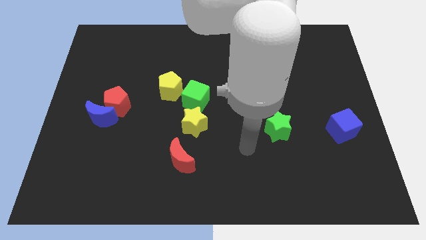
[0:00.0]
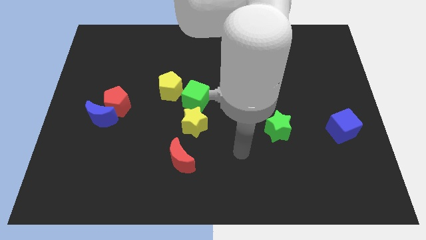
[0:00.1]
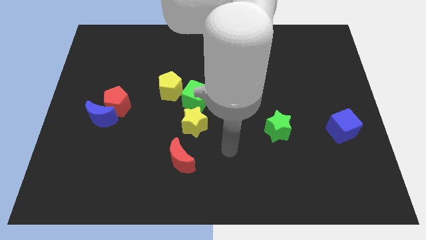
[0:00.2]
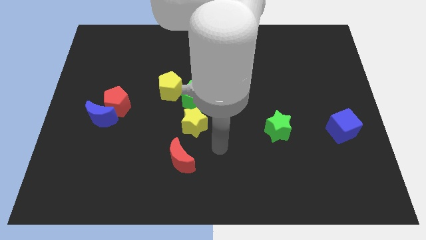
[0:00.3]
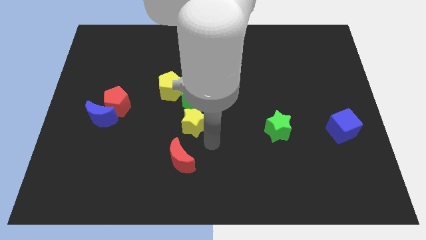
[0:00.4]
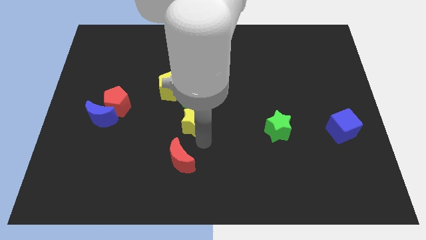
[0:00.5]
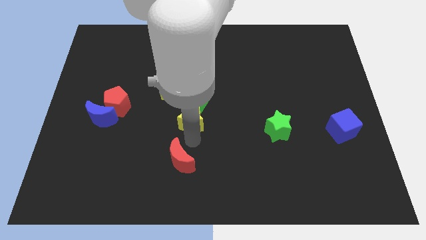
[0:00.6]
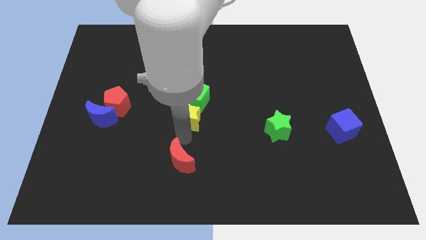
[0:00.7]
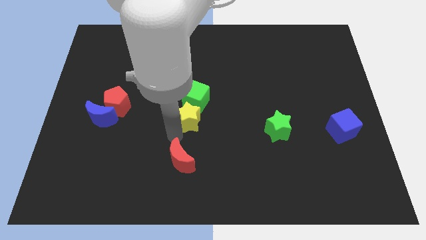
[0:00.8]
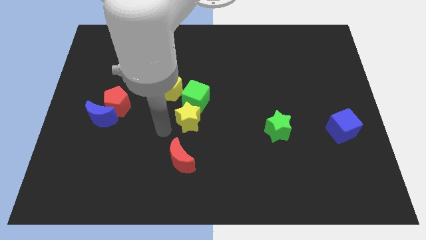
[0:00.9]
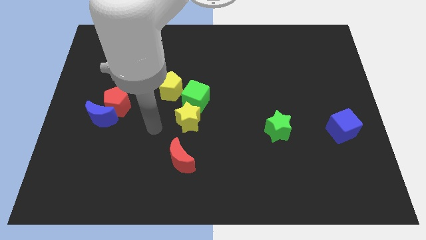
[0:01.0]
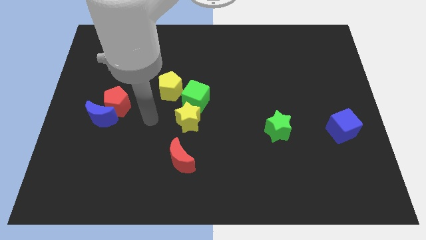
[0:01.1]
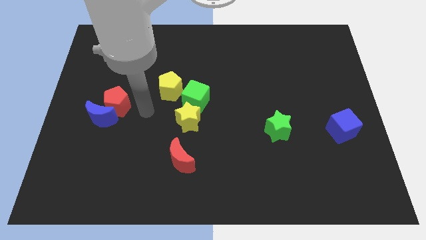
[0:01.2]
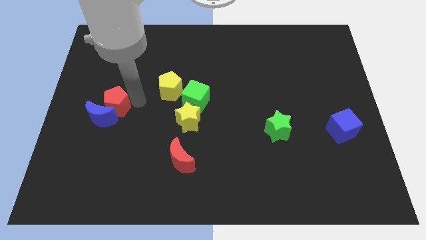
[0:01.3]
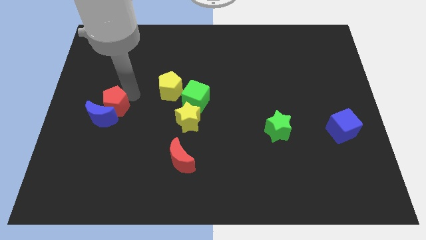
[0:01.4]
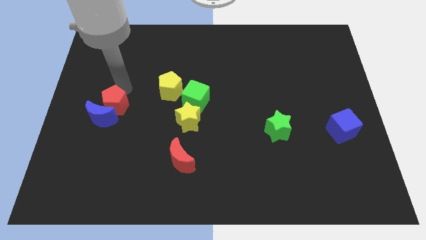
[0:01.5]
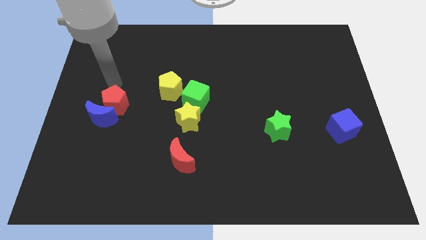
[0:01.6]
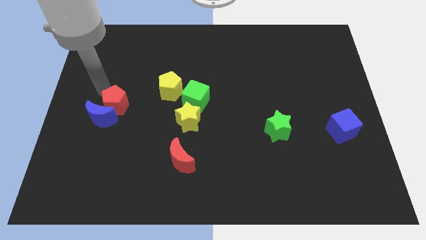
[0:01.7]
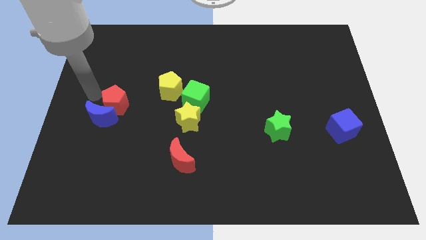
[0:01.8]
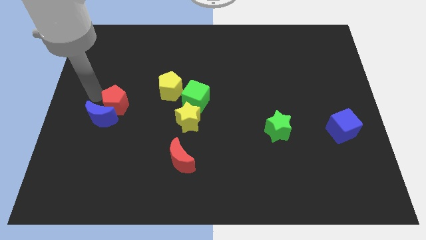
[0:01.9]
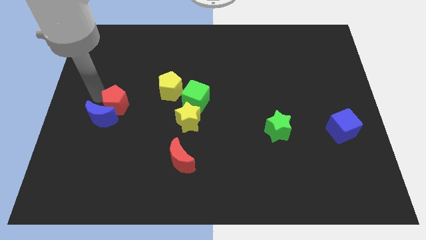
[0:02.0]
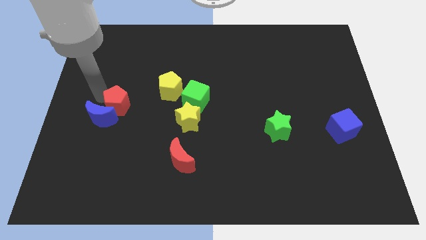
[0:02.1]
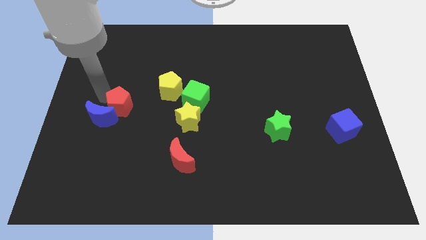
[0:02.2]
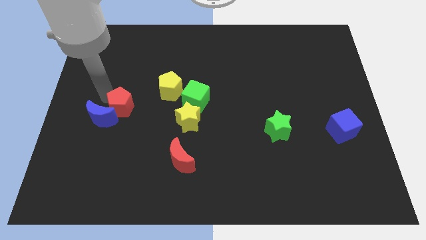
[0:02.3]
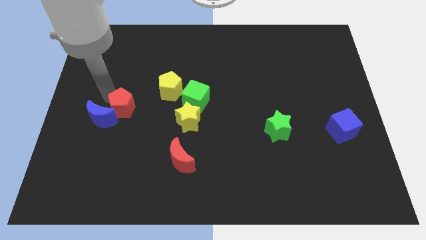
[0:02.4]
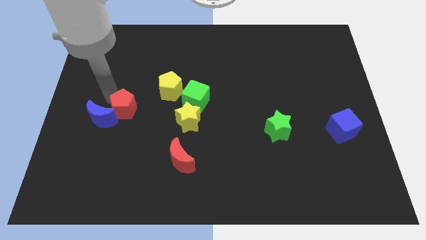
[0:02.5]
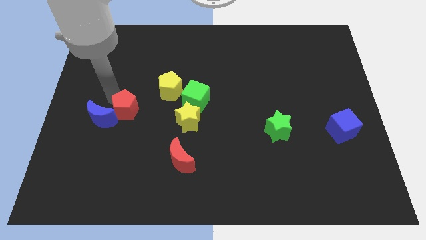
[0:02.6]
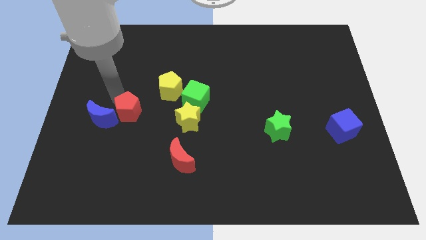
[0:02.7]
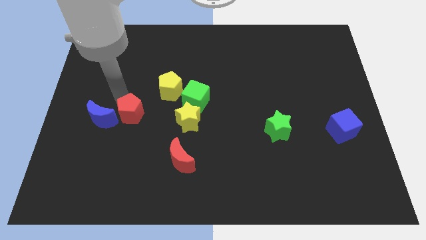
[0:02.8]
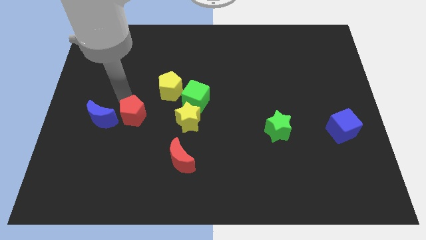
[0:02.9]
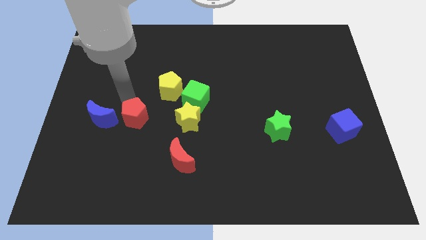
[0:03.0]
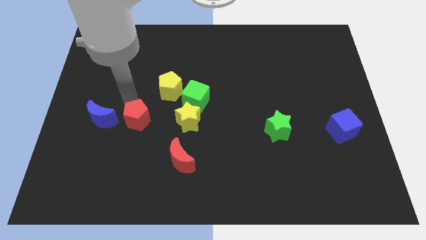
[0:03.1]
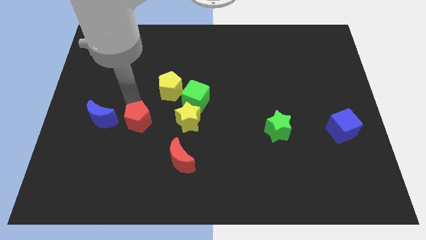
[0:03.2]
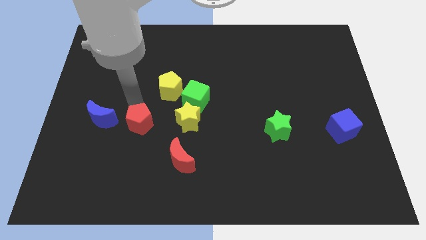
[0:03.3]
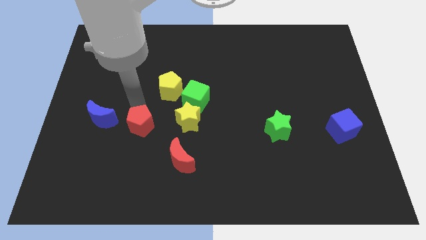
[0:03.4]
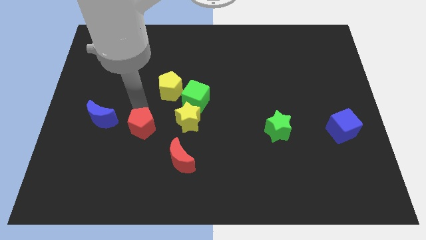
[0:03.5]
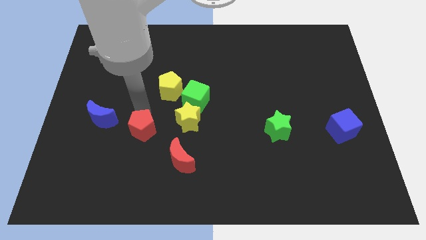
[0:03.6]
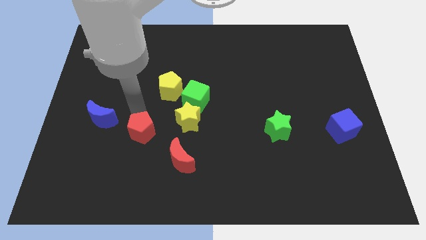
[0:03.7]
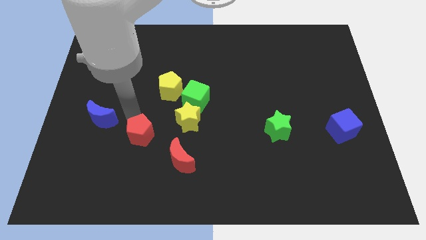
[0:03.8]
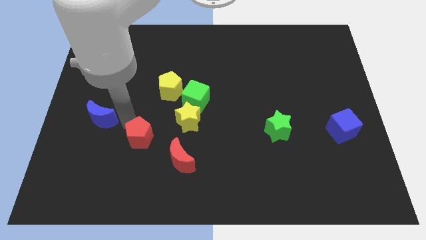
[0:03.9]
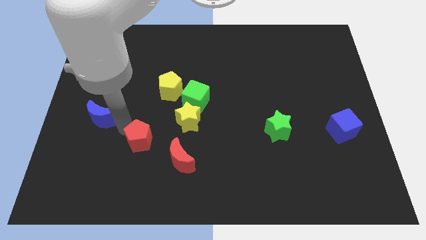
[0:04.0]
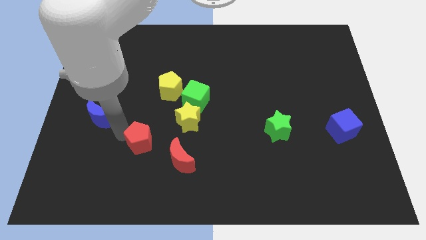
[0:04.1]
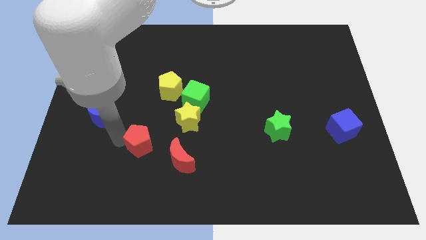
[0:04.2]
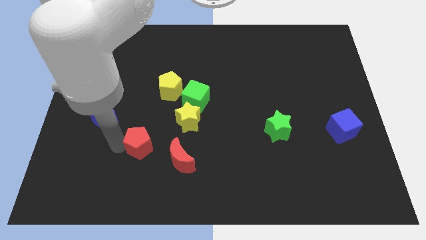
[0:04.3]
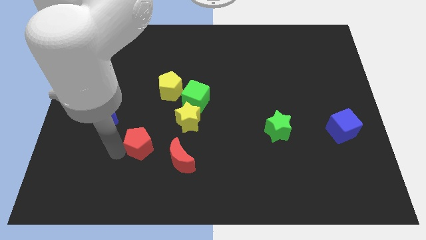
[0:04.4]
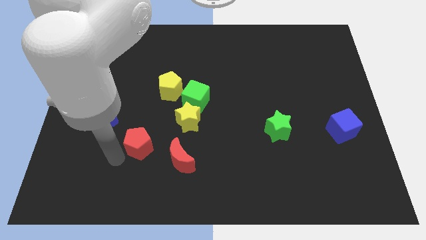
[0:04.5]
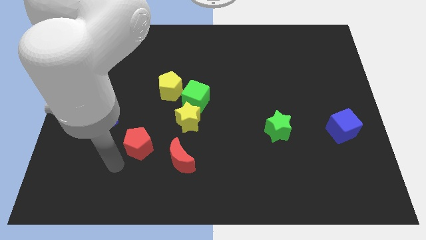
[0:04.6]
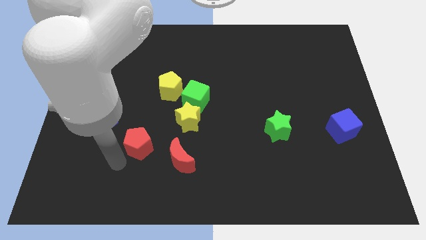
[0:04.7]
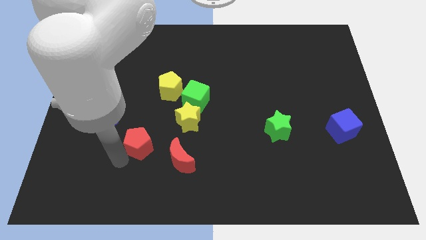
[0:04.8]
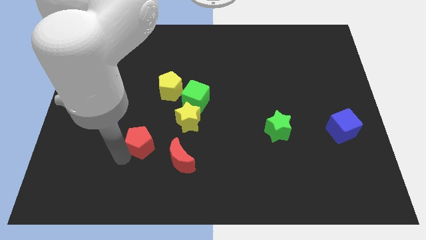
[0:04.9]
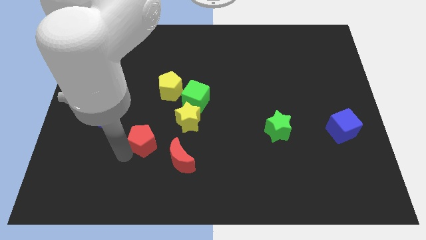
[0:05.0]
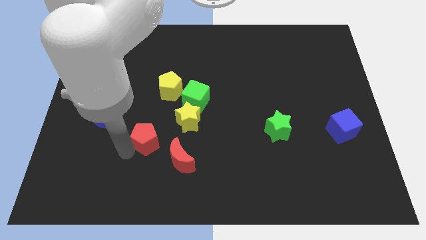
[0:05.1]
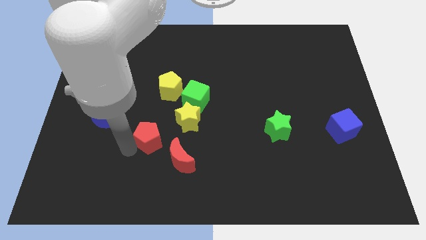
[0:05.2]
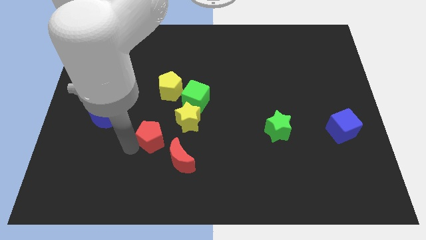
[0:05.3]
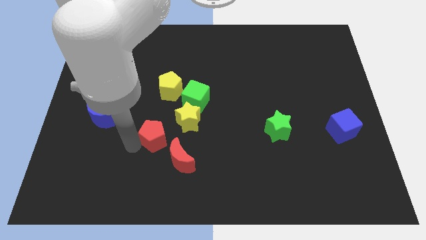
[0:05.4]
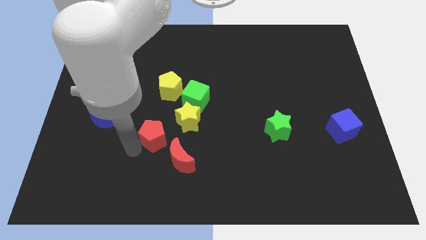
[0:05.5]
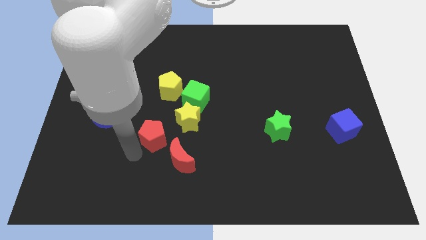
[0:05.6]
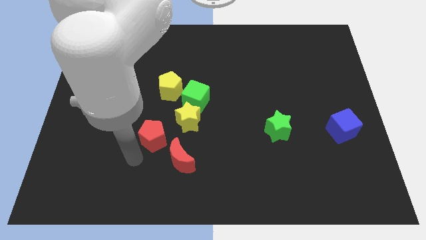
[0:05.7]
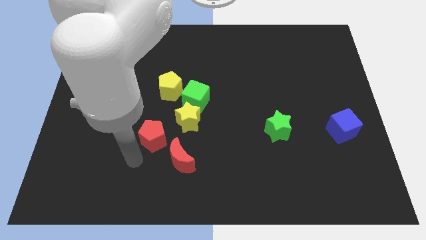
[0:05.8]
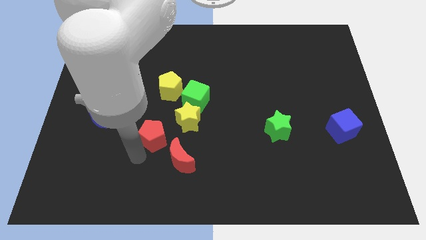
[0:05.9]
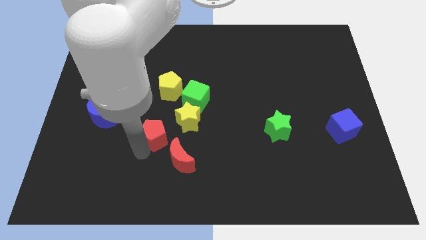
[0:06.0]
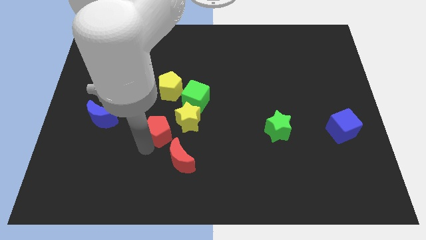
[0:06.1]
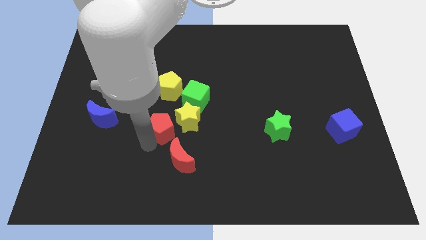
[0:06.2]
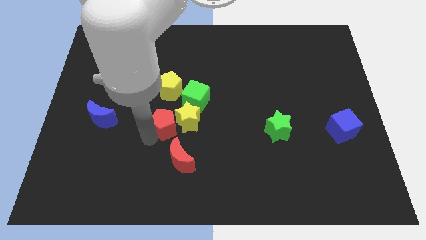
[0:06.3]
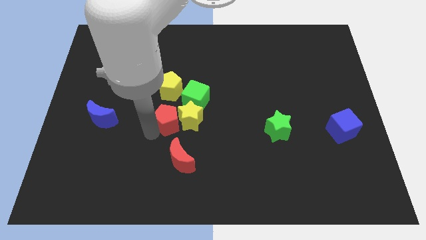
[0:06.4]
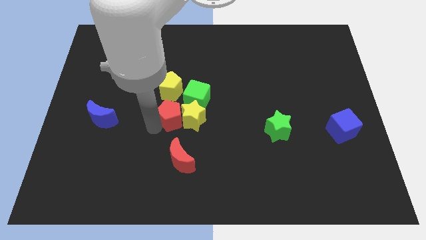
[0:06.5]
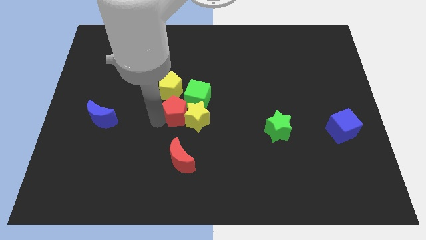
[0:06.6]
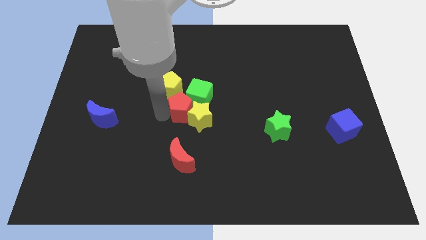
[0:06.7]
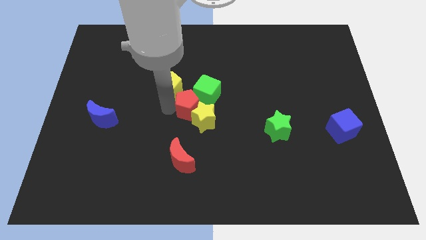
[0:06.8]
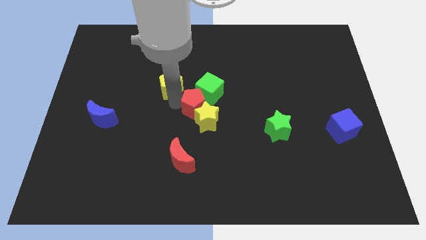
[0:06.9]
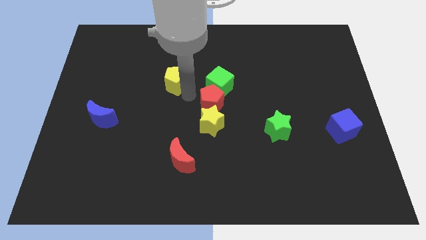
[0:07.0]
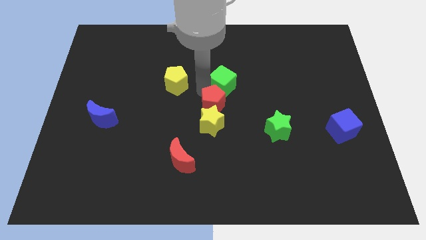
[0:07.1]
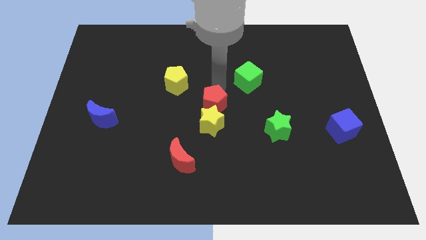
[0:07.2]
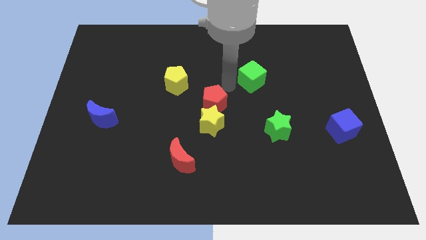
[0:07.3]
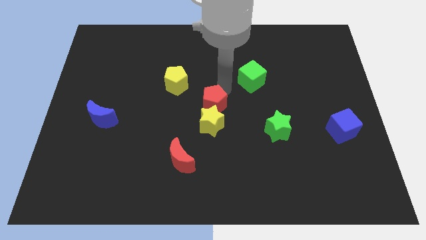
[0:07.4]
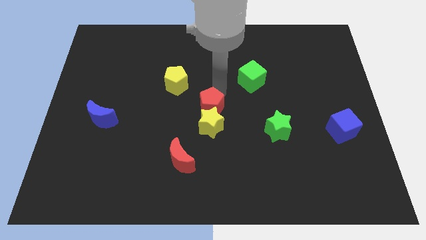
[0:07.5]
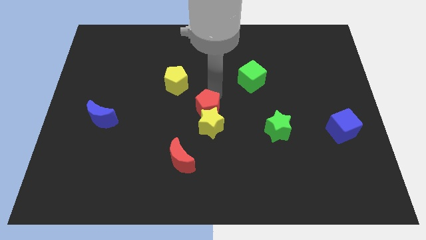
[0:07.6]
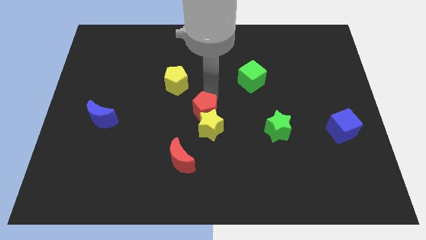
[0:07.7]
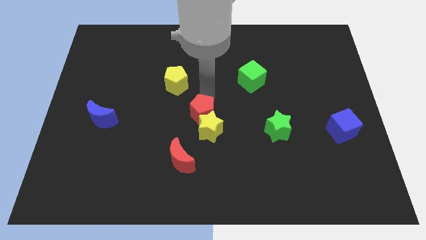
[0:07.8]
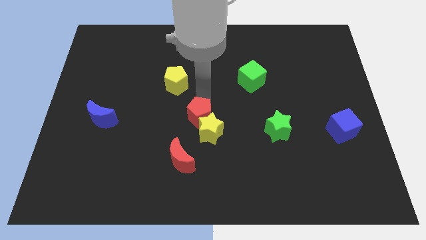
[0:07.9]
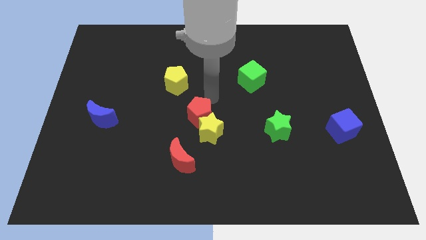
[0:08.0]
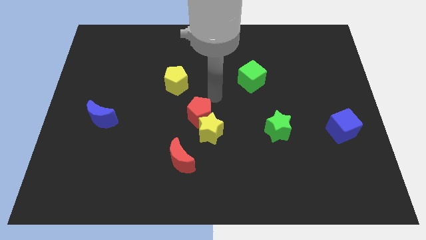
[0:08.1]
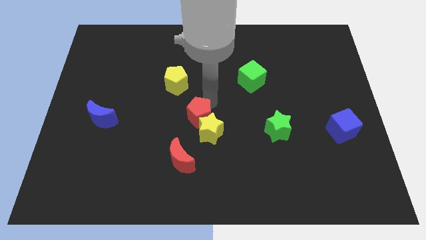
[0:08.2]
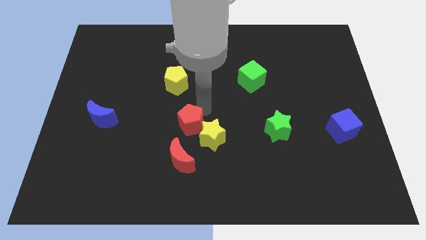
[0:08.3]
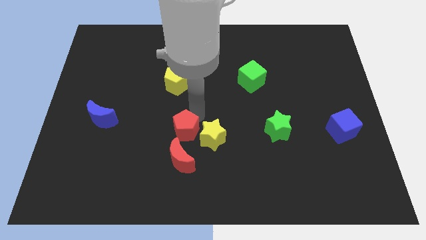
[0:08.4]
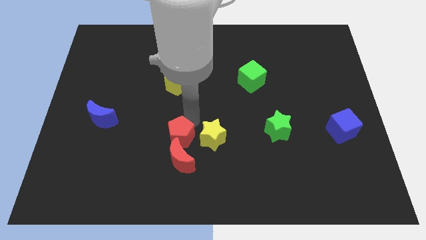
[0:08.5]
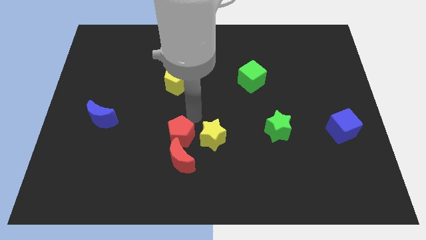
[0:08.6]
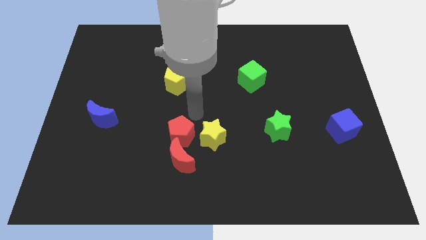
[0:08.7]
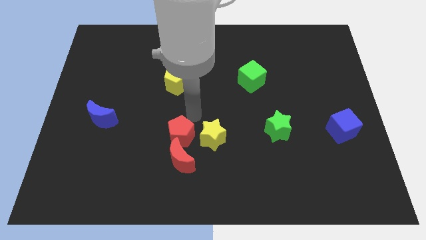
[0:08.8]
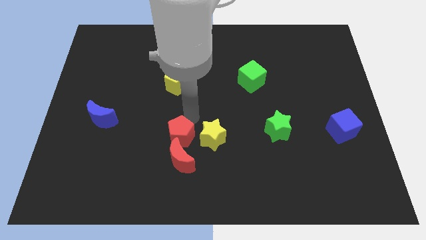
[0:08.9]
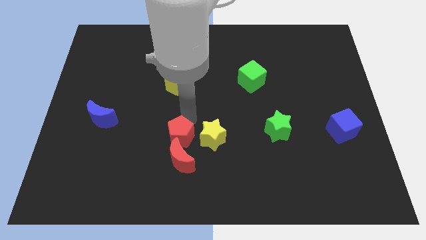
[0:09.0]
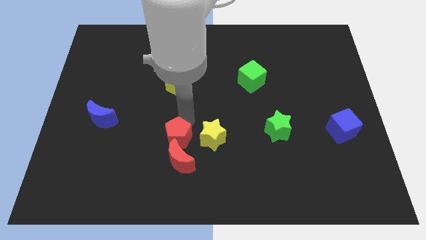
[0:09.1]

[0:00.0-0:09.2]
move the red pentagon to the red moon
